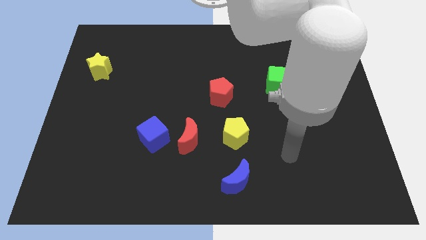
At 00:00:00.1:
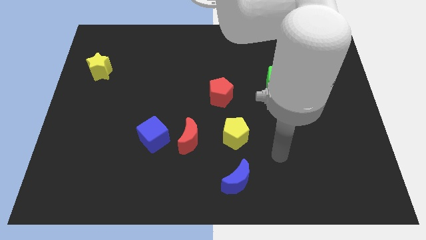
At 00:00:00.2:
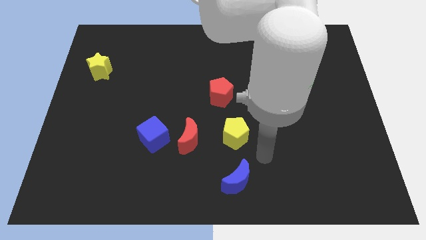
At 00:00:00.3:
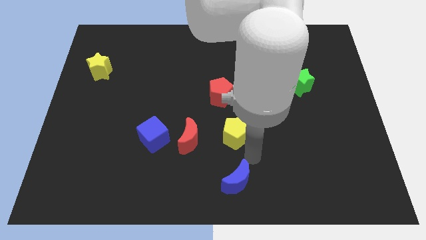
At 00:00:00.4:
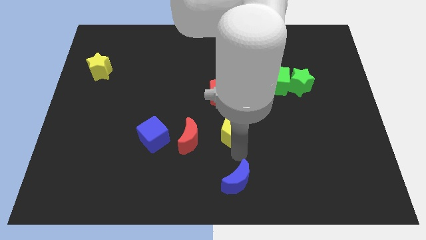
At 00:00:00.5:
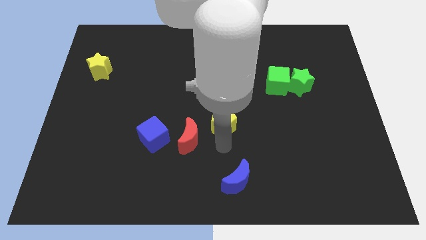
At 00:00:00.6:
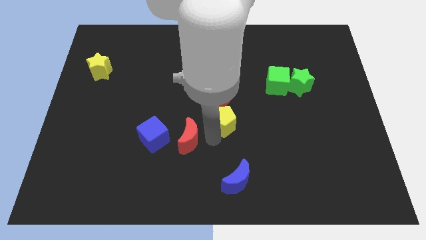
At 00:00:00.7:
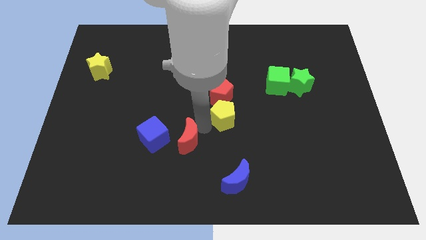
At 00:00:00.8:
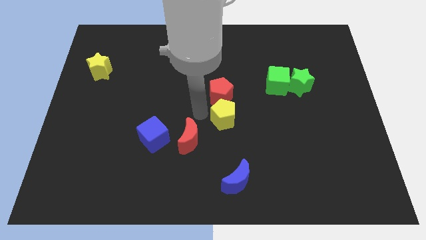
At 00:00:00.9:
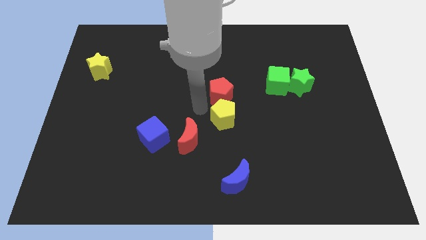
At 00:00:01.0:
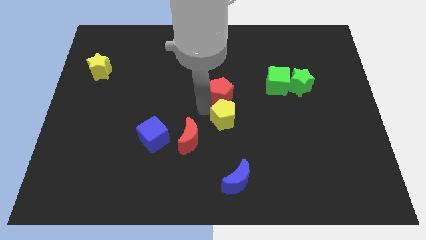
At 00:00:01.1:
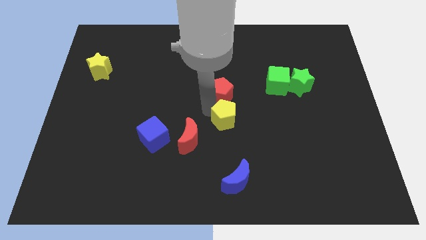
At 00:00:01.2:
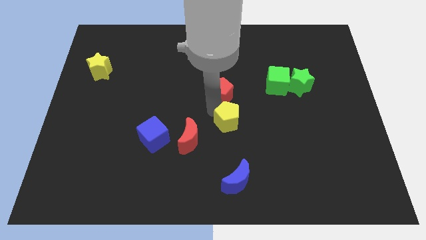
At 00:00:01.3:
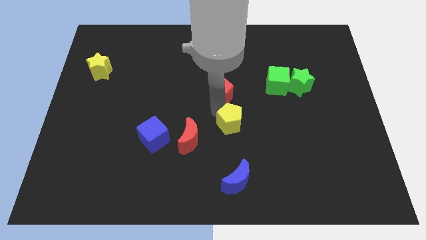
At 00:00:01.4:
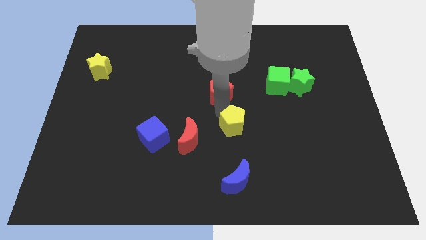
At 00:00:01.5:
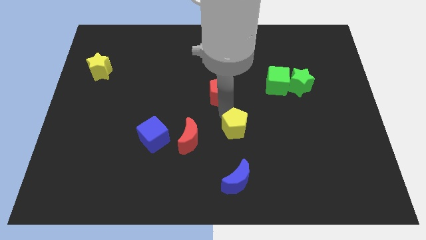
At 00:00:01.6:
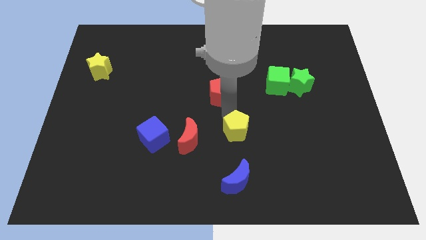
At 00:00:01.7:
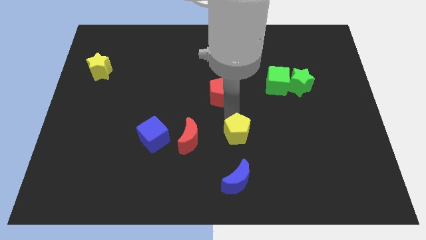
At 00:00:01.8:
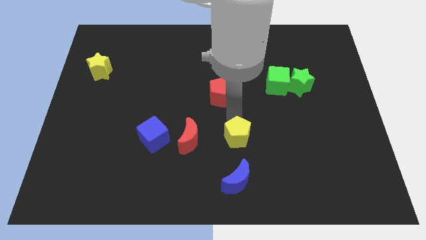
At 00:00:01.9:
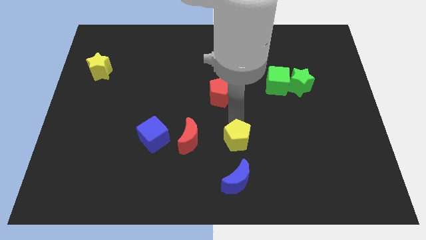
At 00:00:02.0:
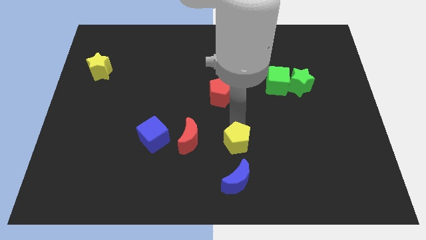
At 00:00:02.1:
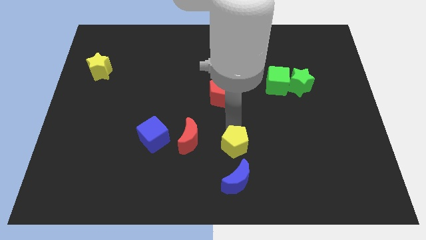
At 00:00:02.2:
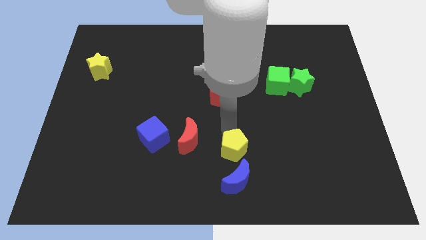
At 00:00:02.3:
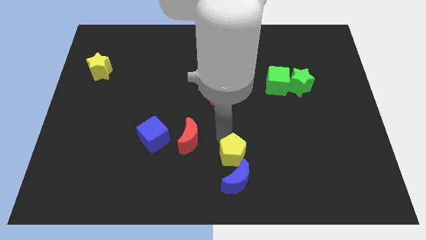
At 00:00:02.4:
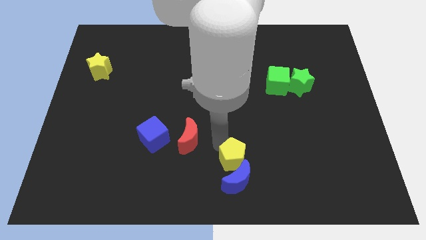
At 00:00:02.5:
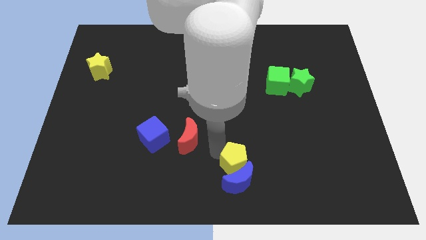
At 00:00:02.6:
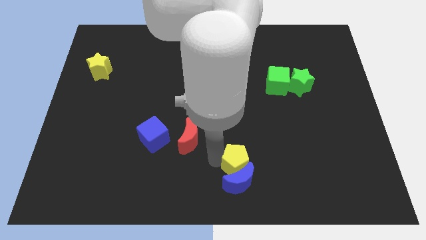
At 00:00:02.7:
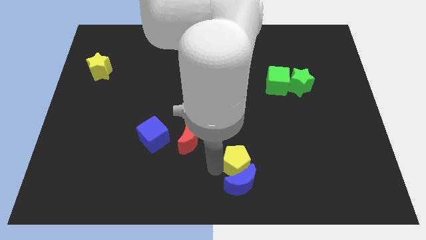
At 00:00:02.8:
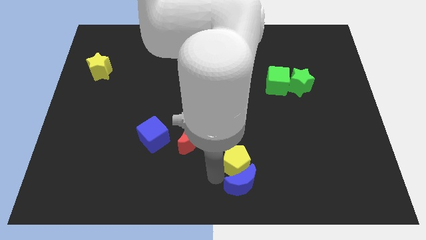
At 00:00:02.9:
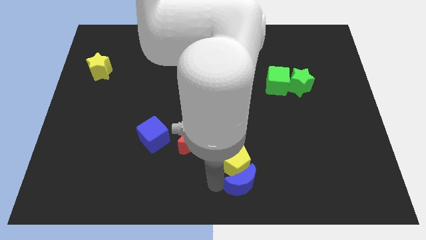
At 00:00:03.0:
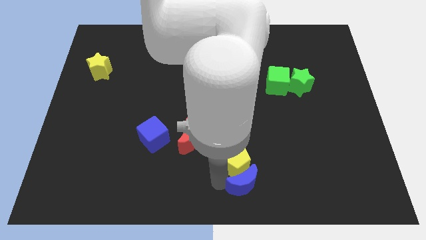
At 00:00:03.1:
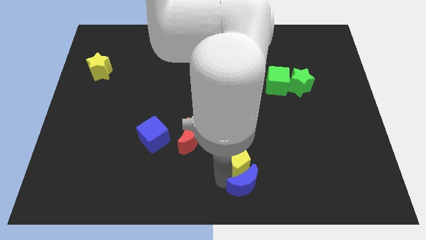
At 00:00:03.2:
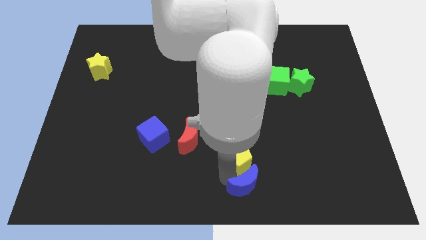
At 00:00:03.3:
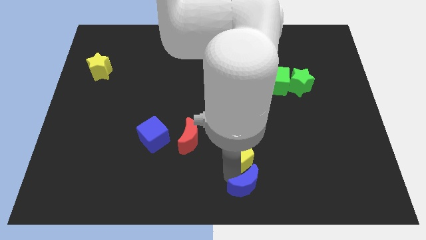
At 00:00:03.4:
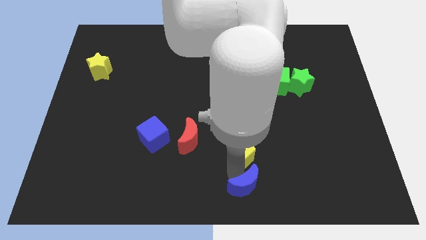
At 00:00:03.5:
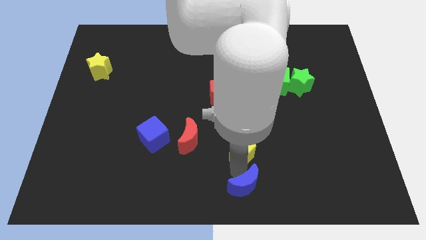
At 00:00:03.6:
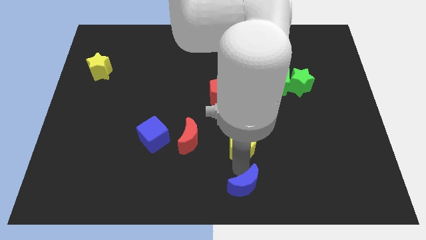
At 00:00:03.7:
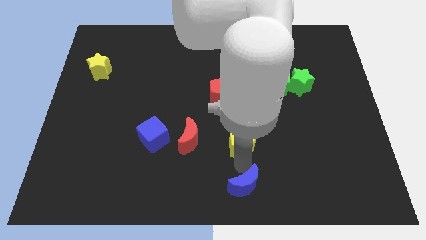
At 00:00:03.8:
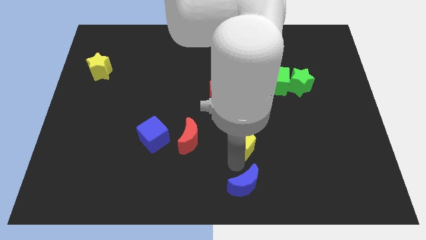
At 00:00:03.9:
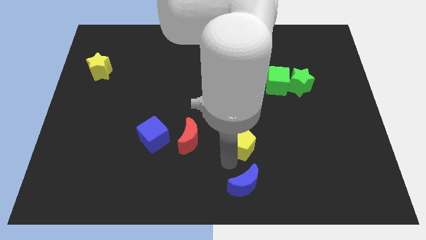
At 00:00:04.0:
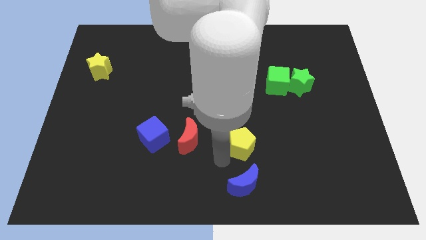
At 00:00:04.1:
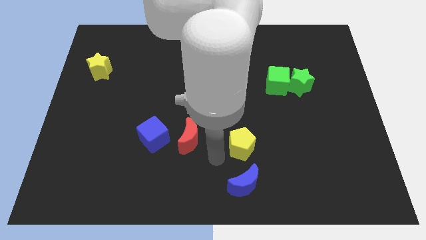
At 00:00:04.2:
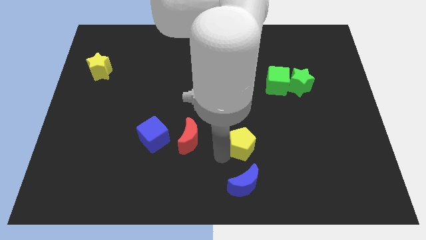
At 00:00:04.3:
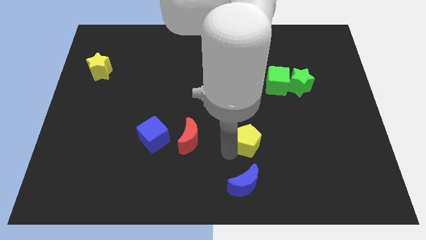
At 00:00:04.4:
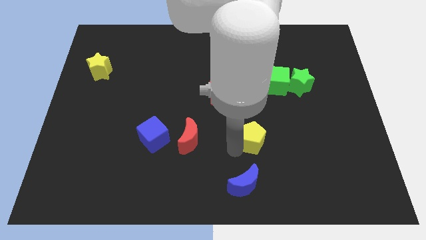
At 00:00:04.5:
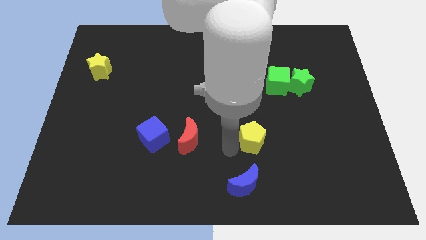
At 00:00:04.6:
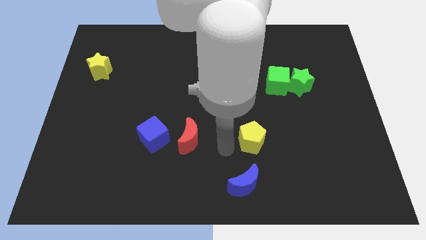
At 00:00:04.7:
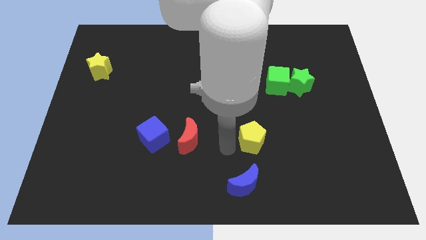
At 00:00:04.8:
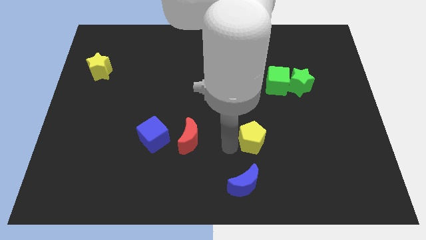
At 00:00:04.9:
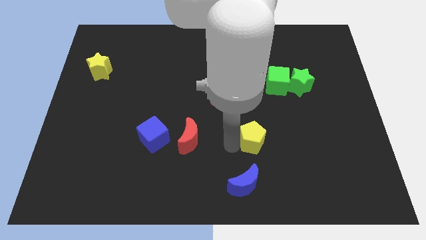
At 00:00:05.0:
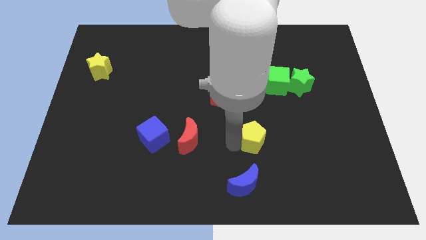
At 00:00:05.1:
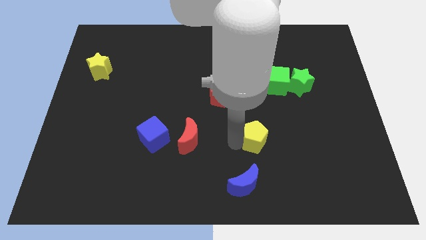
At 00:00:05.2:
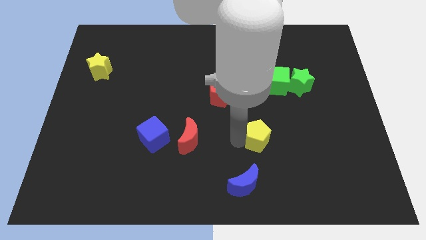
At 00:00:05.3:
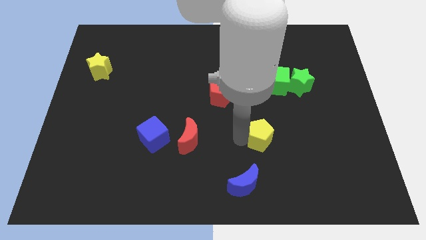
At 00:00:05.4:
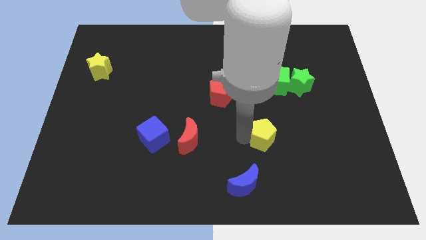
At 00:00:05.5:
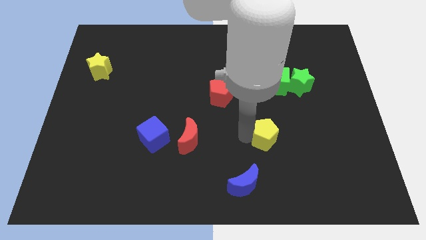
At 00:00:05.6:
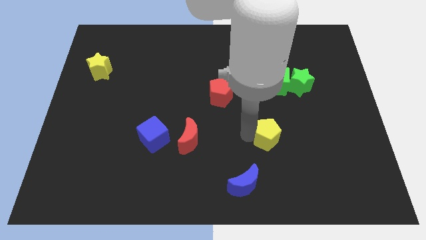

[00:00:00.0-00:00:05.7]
slightly move the yellow pentagon right

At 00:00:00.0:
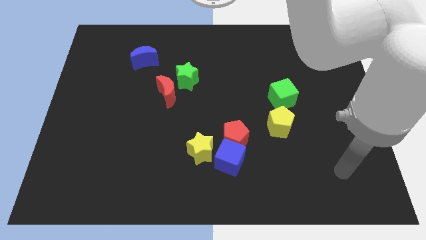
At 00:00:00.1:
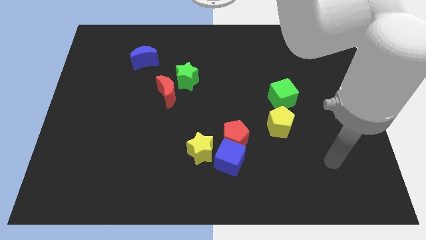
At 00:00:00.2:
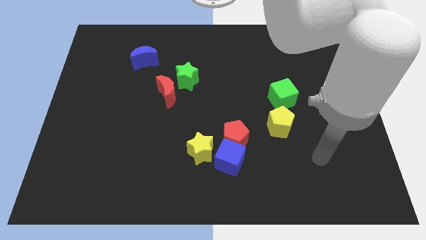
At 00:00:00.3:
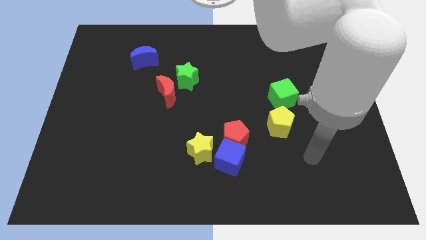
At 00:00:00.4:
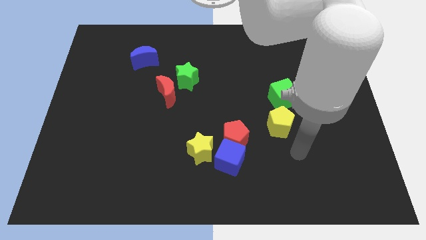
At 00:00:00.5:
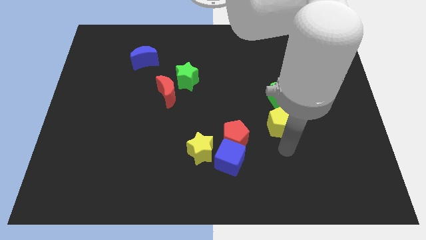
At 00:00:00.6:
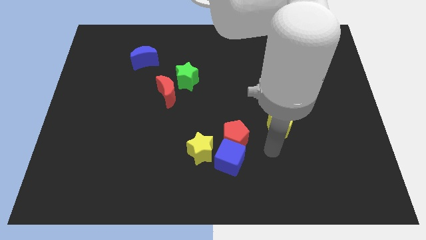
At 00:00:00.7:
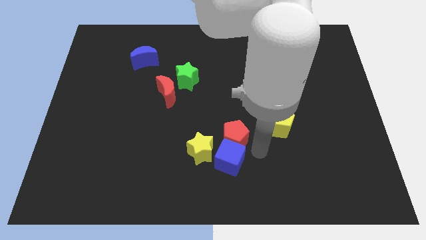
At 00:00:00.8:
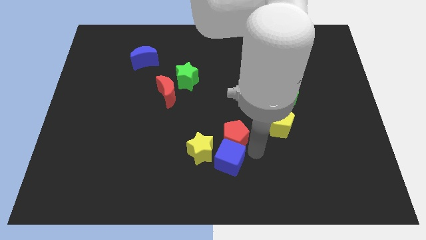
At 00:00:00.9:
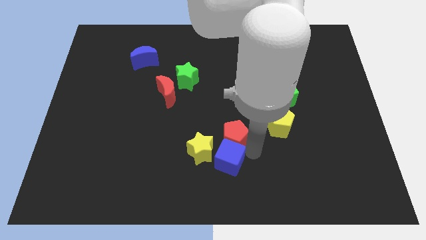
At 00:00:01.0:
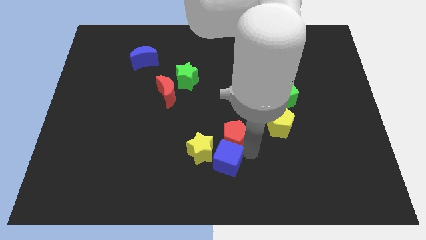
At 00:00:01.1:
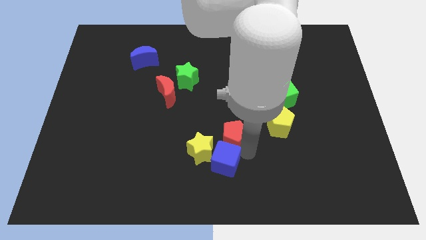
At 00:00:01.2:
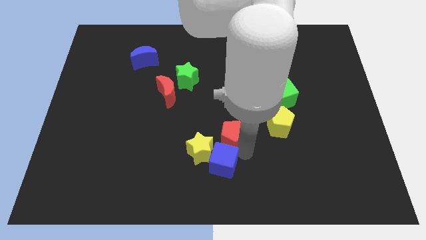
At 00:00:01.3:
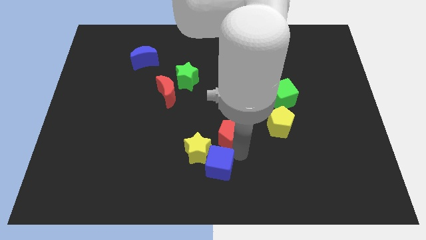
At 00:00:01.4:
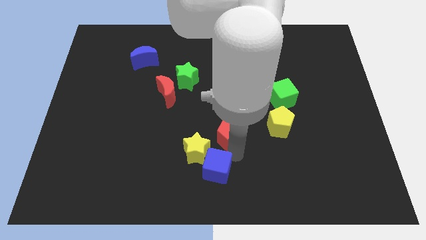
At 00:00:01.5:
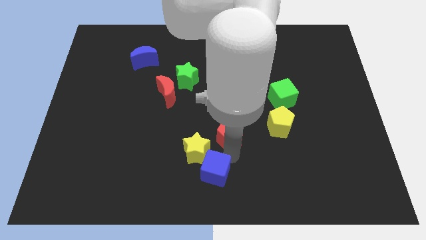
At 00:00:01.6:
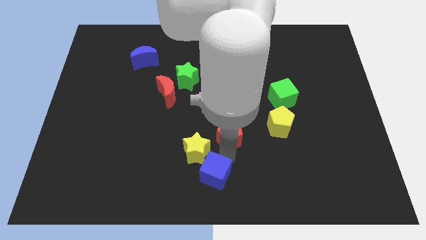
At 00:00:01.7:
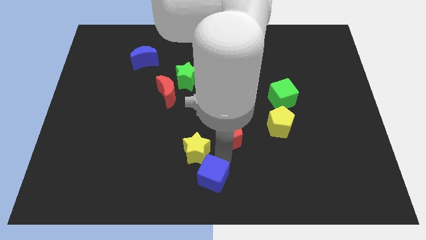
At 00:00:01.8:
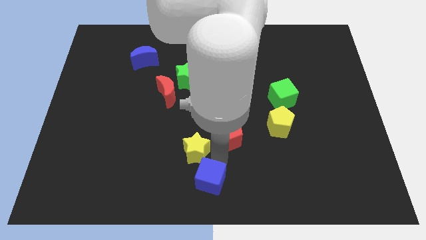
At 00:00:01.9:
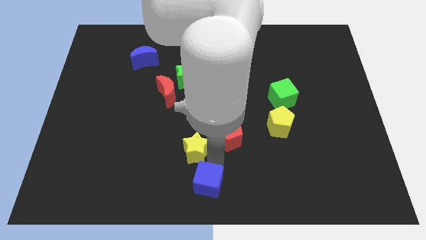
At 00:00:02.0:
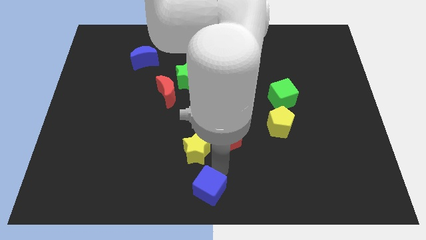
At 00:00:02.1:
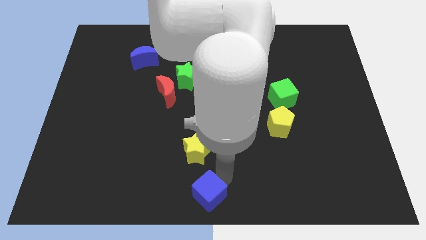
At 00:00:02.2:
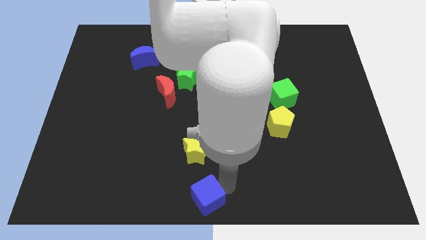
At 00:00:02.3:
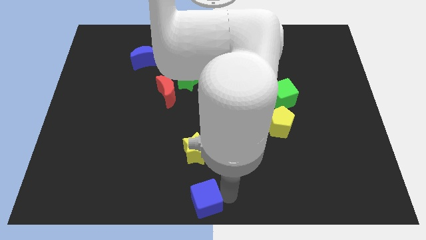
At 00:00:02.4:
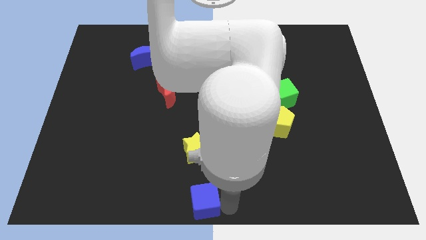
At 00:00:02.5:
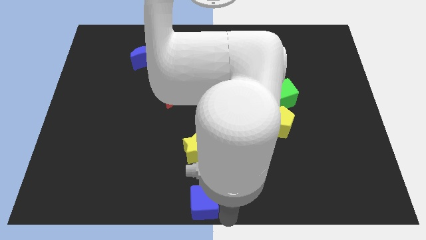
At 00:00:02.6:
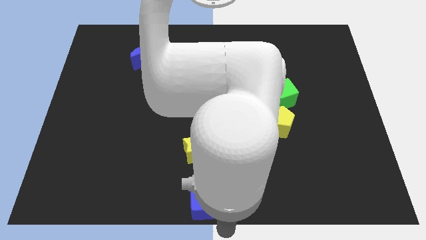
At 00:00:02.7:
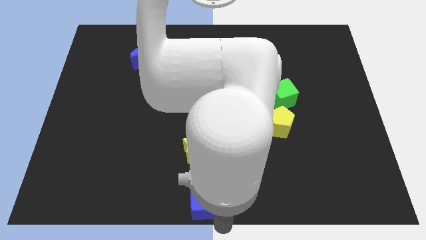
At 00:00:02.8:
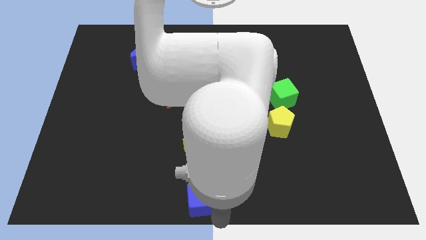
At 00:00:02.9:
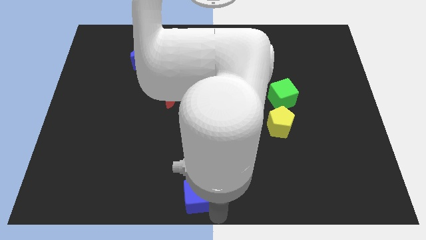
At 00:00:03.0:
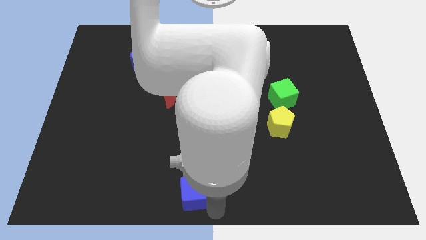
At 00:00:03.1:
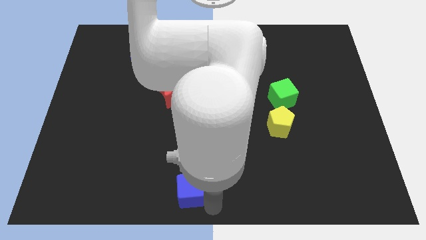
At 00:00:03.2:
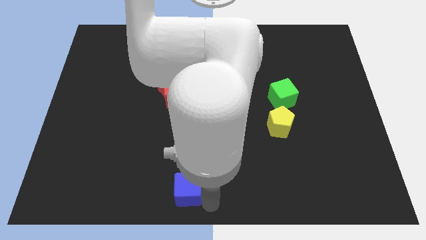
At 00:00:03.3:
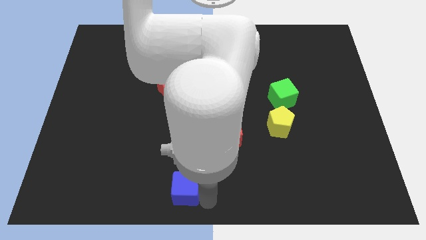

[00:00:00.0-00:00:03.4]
slide the blue cube to the left somewhat
